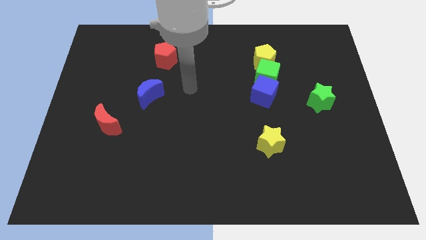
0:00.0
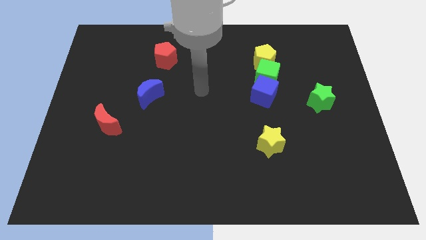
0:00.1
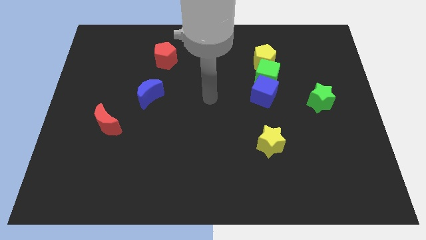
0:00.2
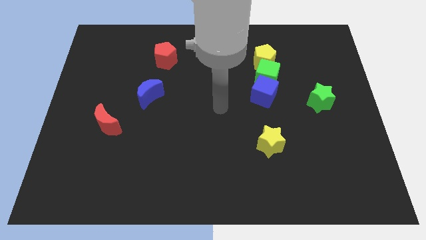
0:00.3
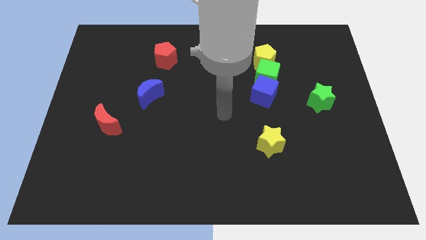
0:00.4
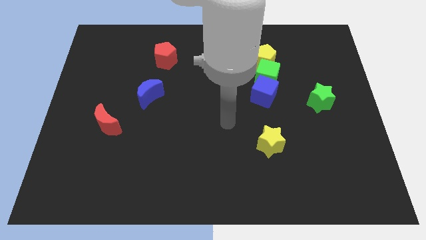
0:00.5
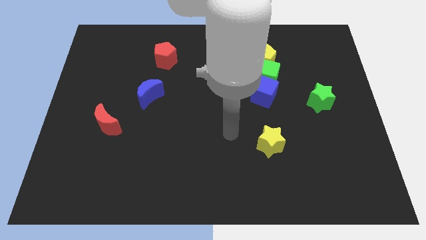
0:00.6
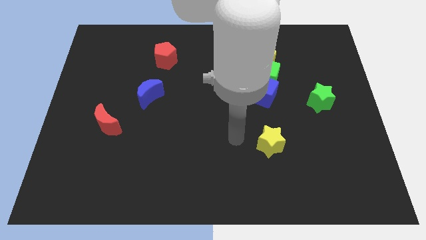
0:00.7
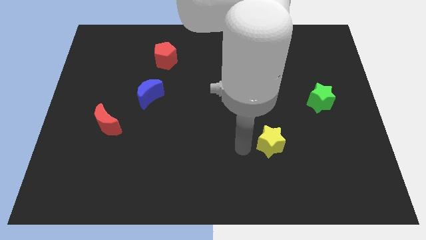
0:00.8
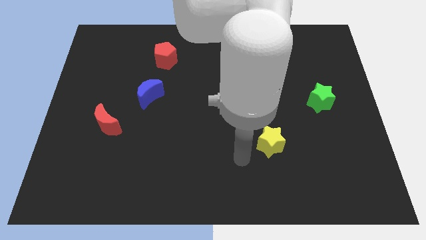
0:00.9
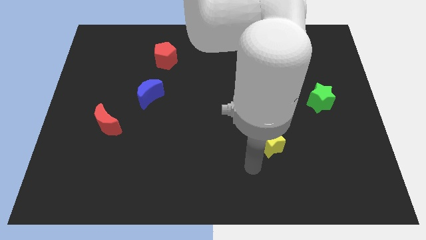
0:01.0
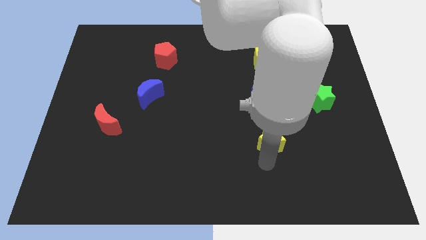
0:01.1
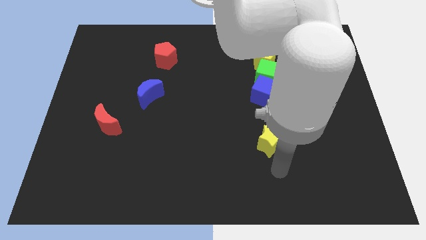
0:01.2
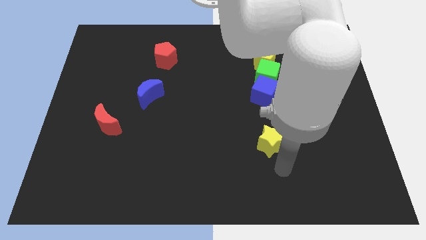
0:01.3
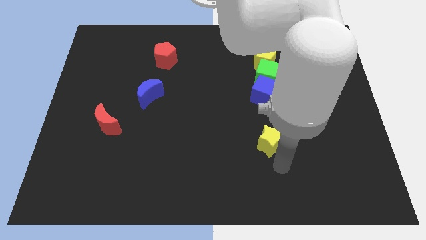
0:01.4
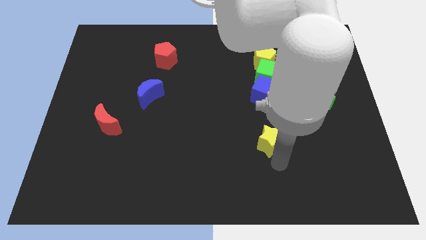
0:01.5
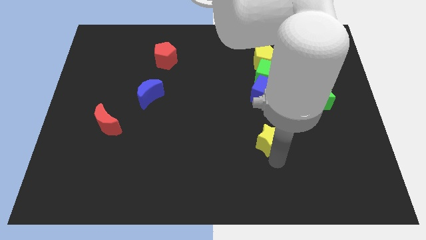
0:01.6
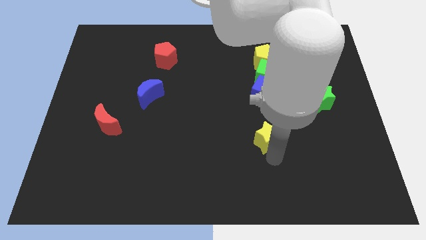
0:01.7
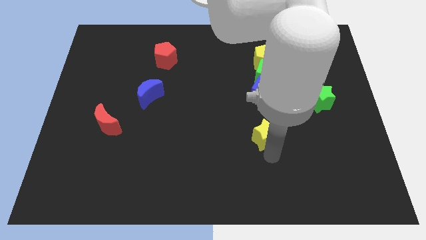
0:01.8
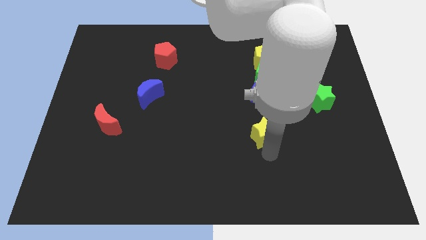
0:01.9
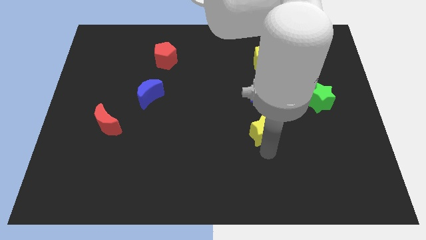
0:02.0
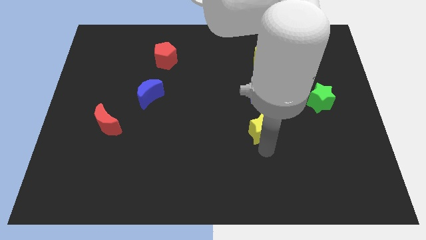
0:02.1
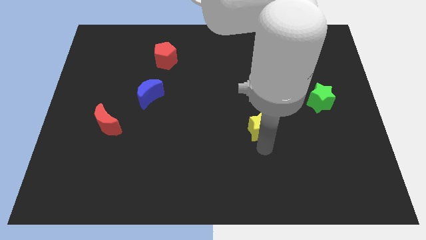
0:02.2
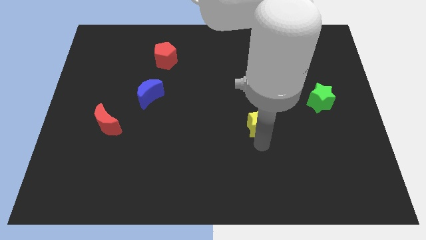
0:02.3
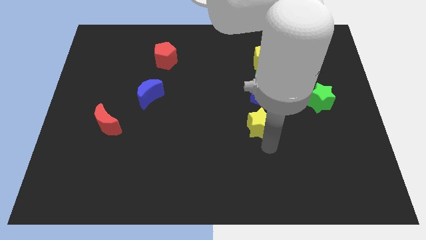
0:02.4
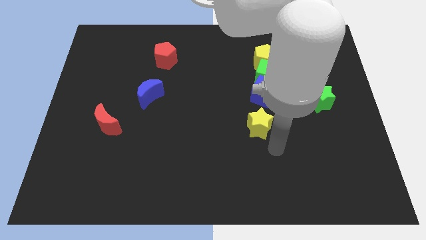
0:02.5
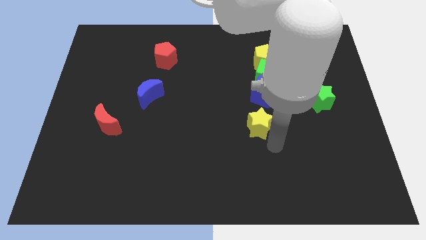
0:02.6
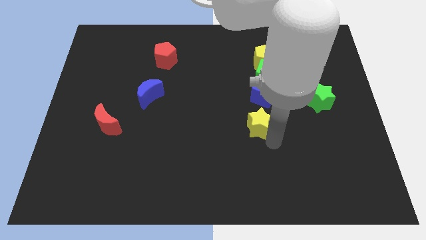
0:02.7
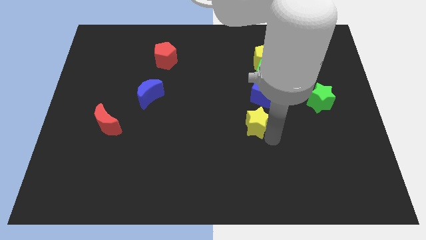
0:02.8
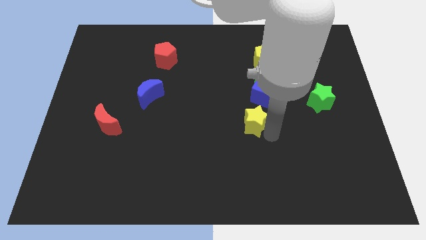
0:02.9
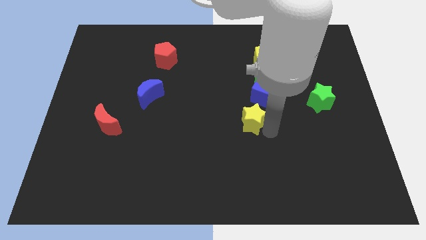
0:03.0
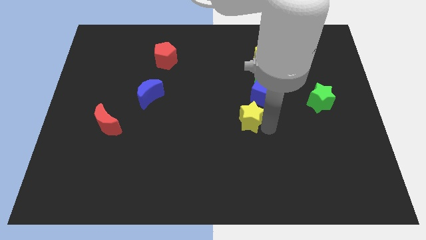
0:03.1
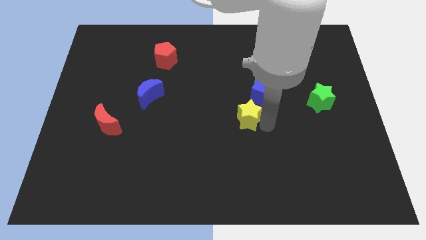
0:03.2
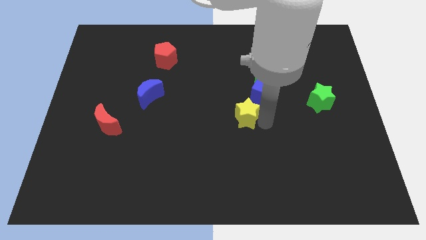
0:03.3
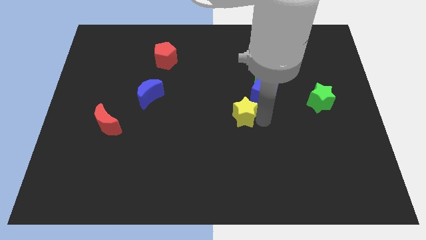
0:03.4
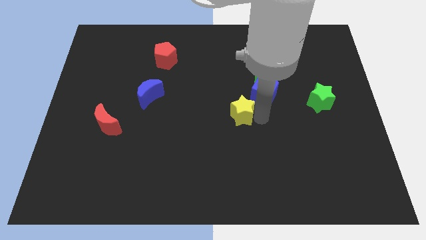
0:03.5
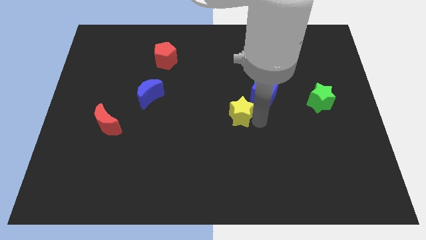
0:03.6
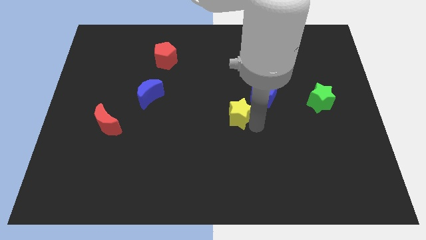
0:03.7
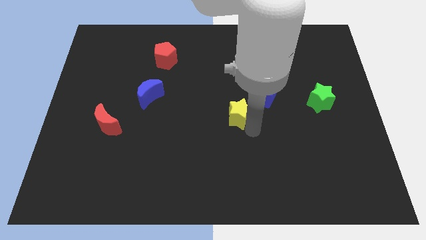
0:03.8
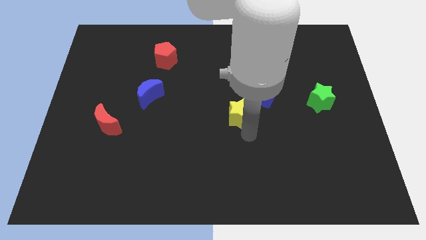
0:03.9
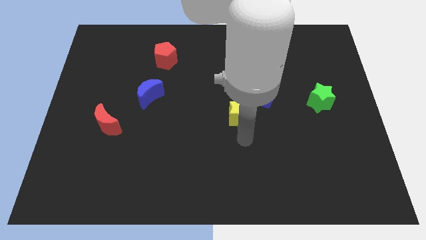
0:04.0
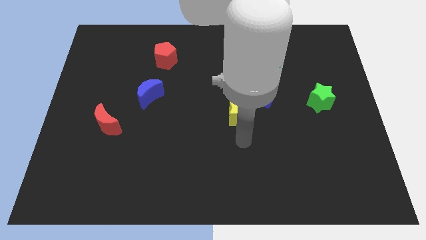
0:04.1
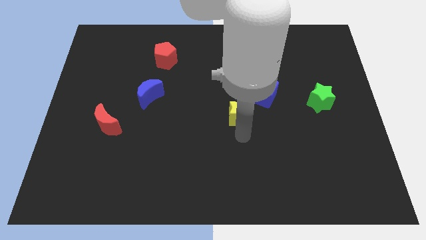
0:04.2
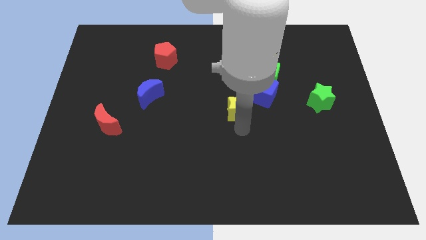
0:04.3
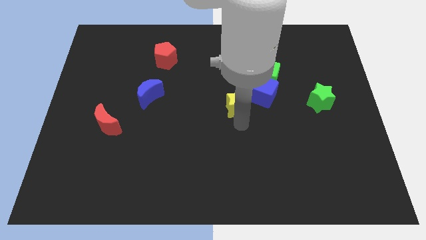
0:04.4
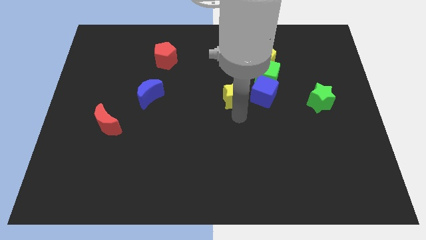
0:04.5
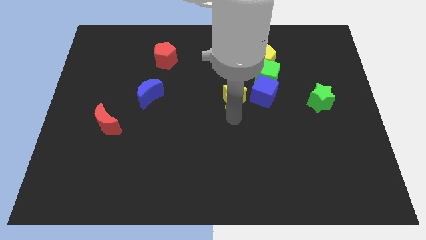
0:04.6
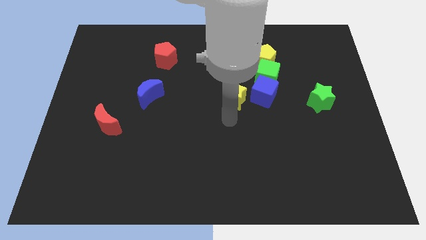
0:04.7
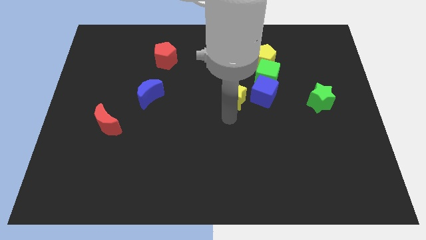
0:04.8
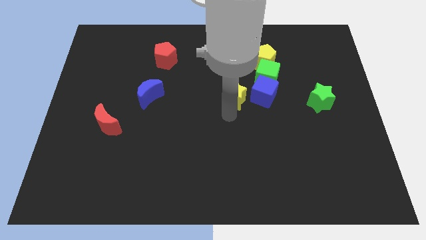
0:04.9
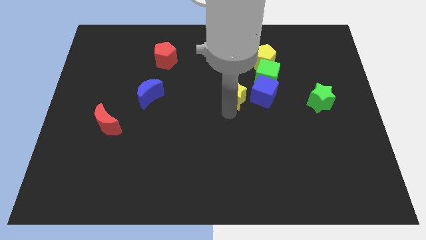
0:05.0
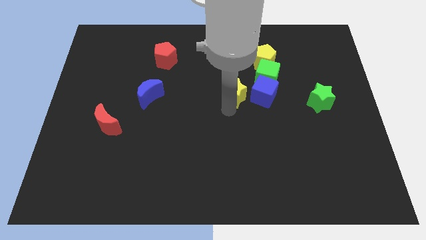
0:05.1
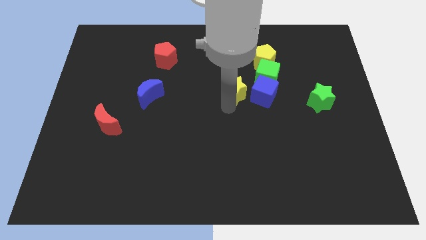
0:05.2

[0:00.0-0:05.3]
move the yellow star to the top left side of the blue cube

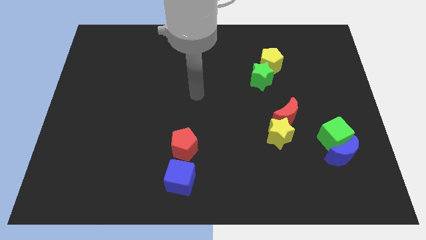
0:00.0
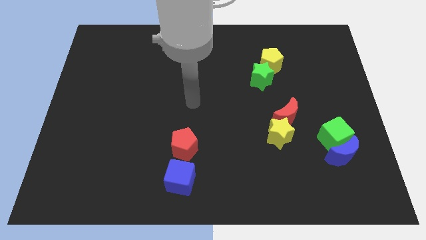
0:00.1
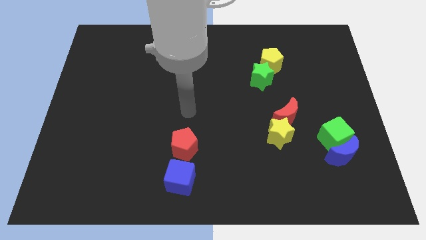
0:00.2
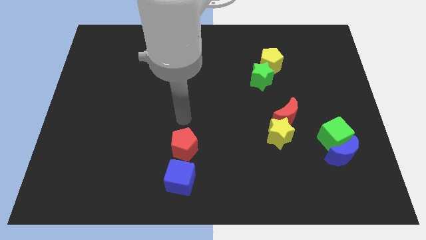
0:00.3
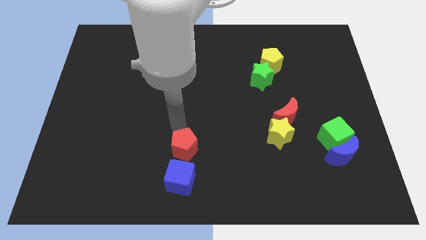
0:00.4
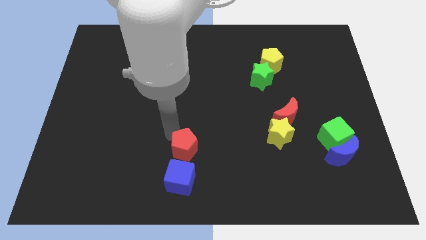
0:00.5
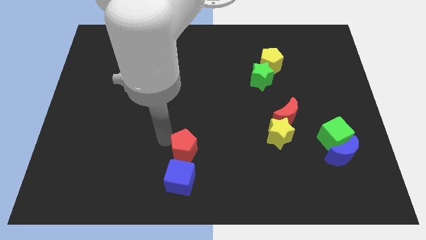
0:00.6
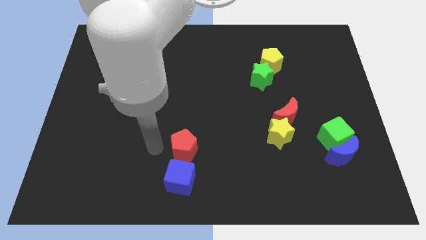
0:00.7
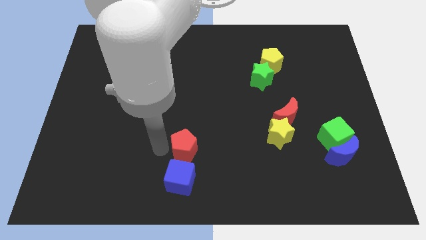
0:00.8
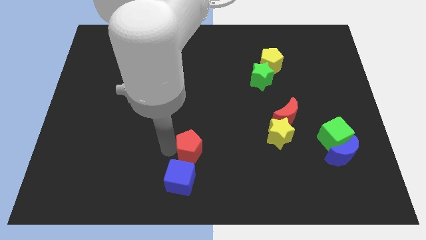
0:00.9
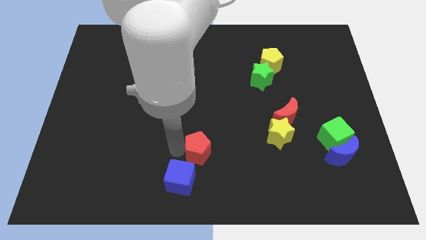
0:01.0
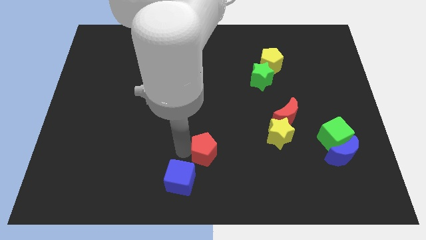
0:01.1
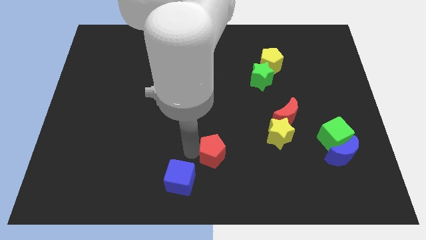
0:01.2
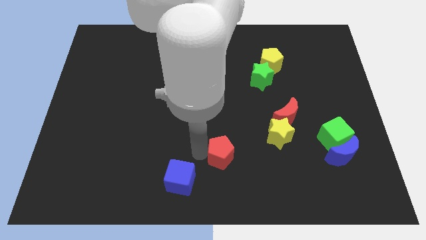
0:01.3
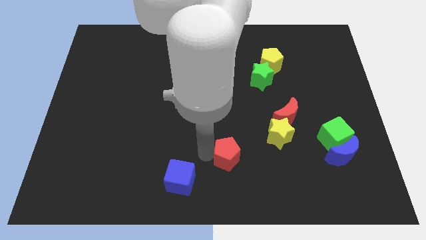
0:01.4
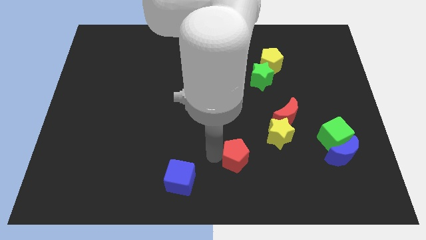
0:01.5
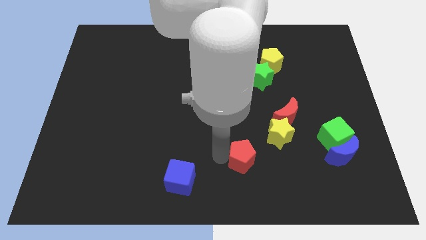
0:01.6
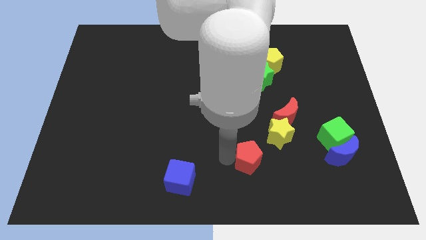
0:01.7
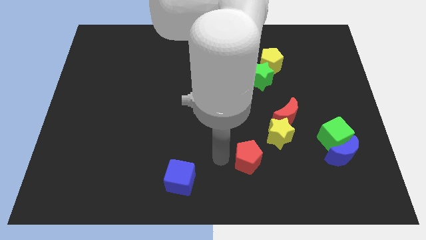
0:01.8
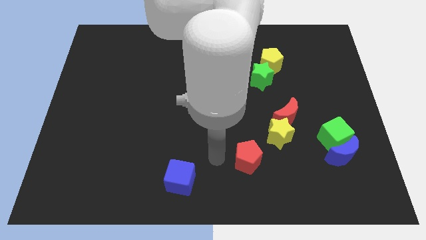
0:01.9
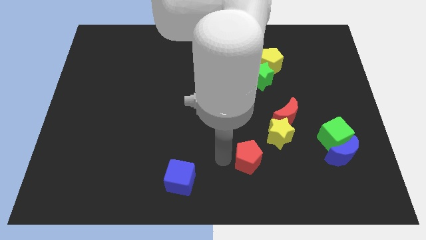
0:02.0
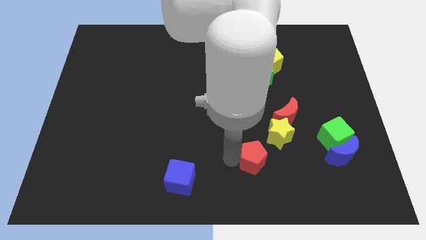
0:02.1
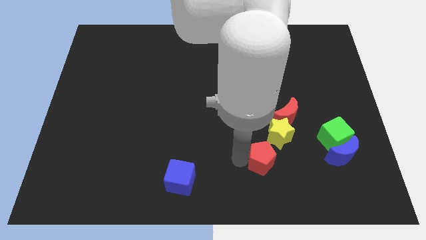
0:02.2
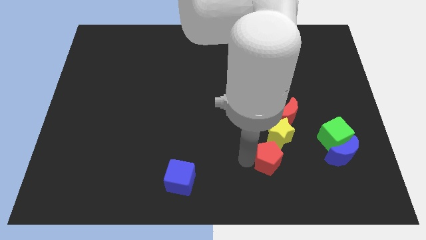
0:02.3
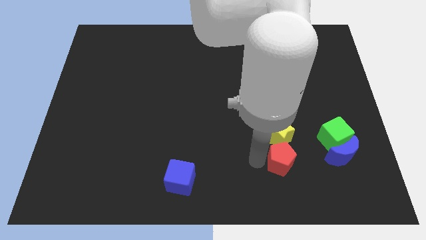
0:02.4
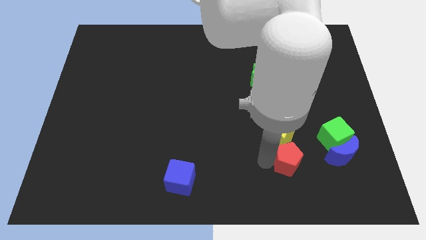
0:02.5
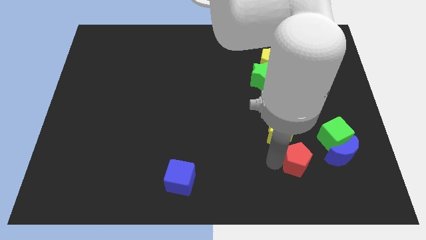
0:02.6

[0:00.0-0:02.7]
push the red pentagon to the bottom left of the green cube
